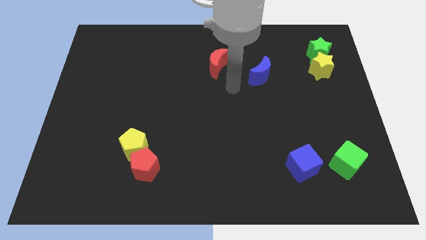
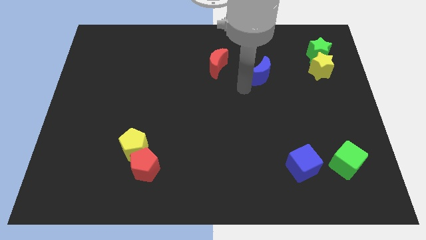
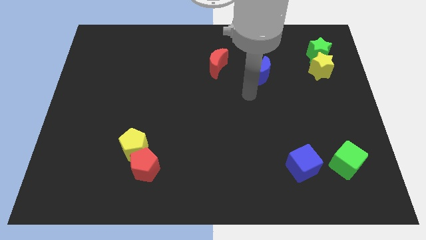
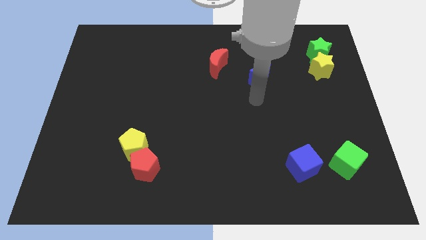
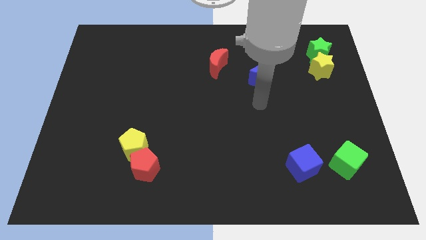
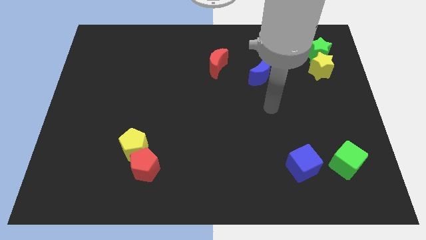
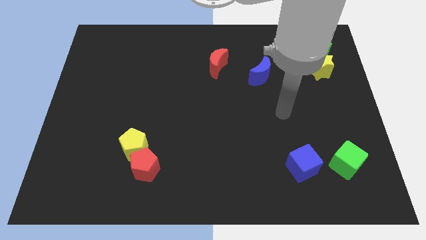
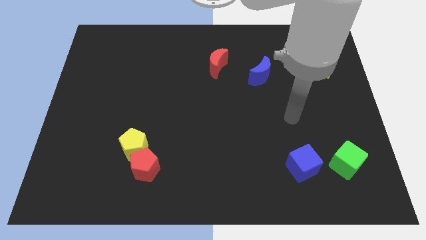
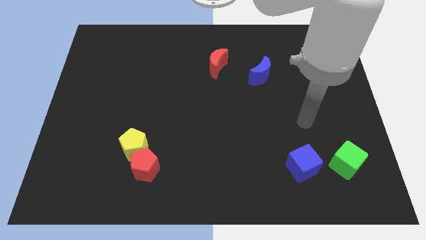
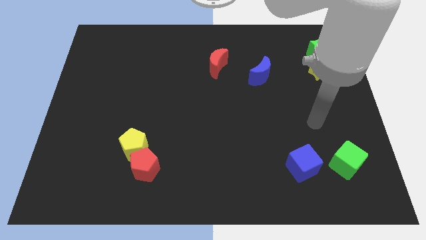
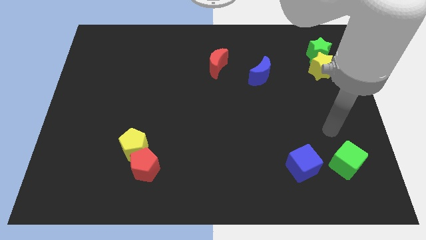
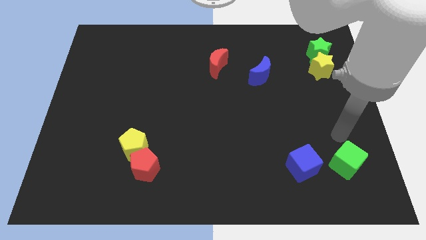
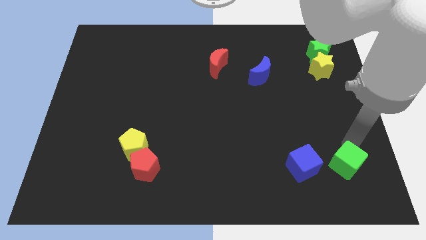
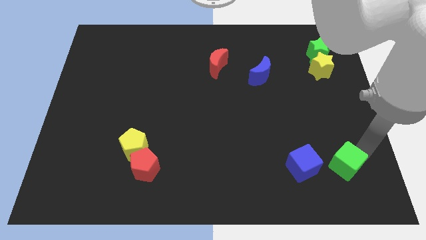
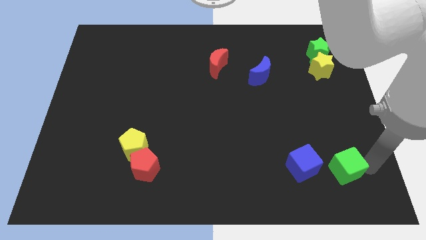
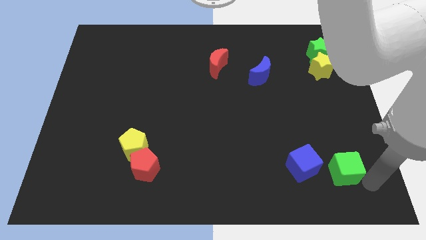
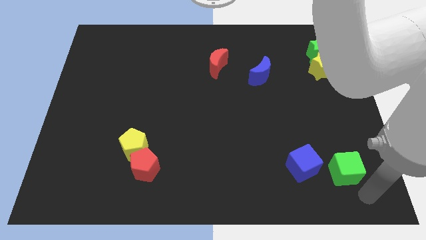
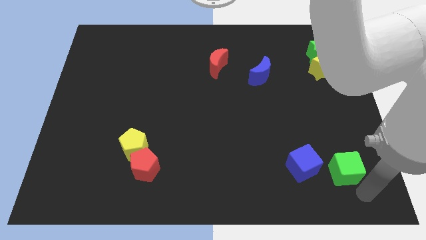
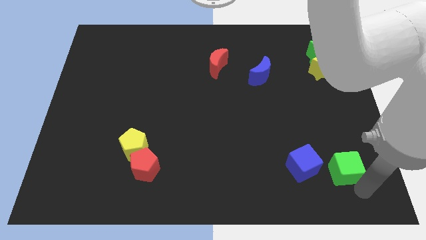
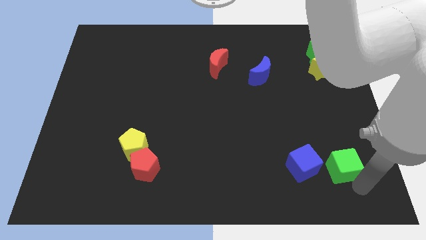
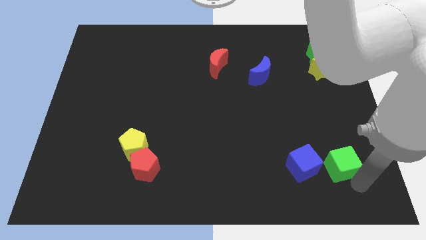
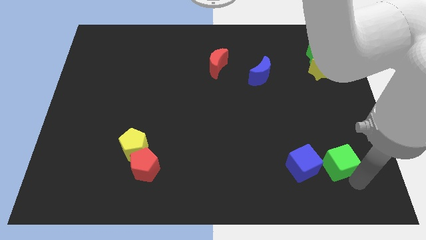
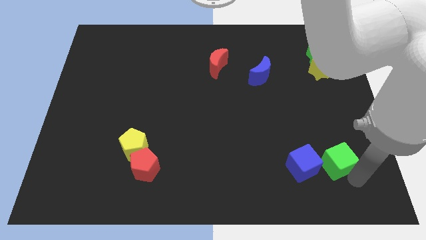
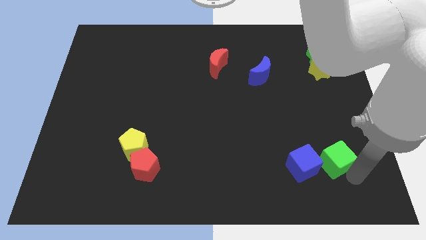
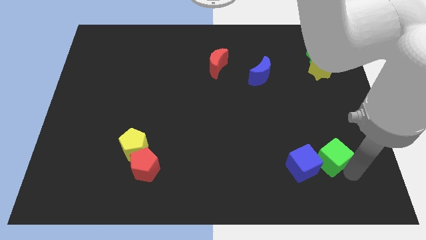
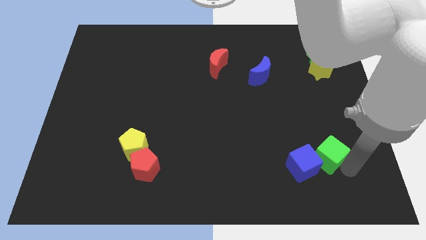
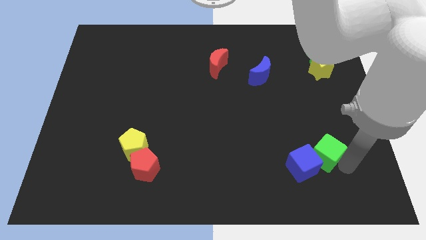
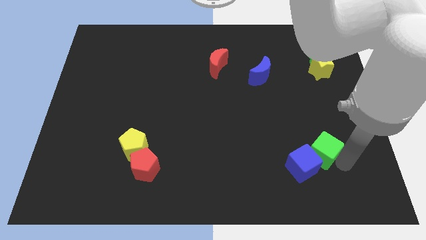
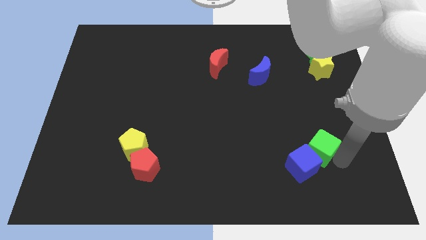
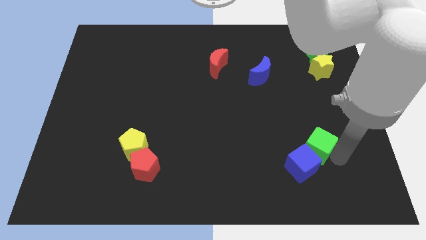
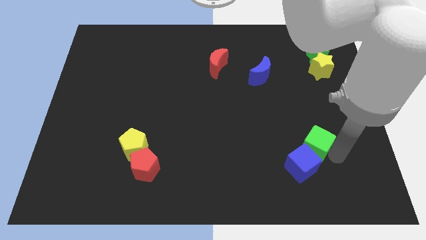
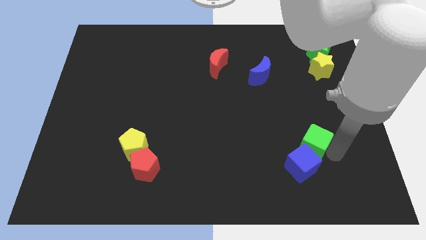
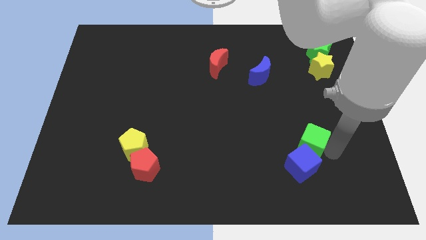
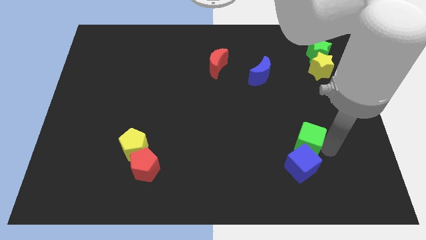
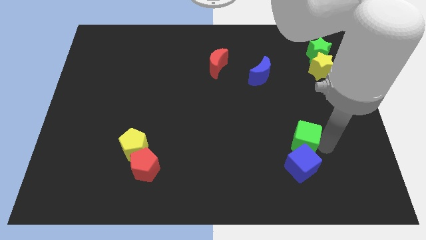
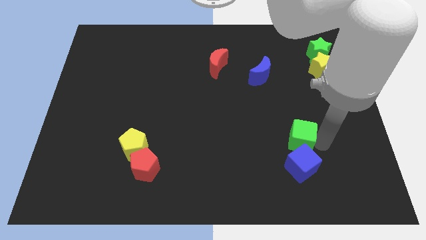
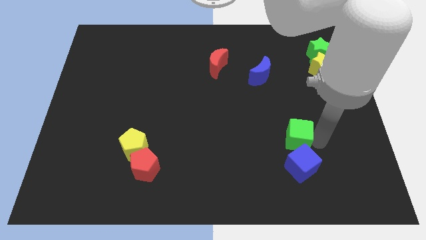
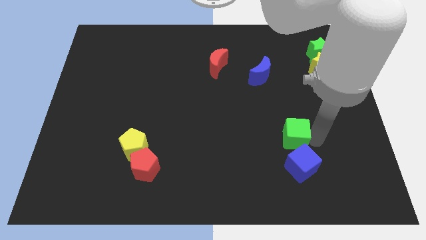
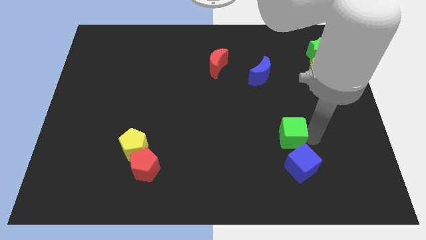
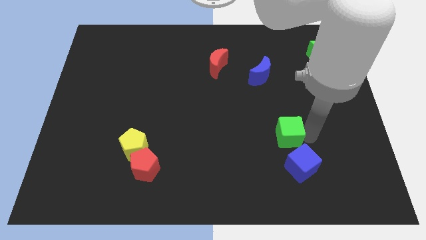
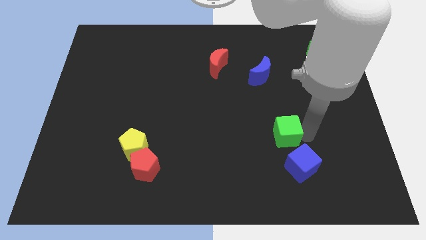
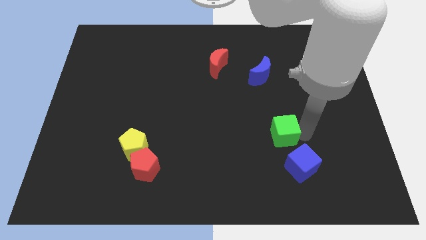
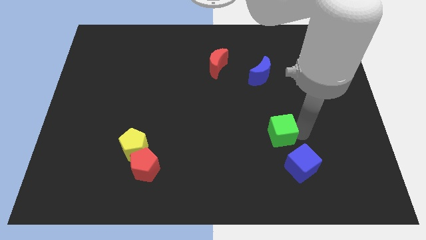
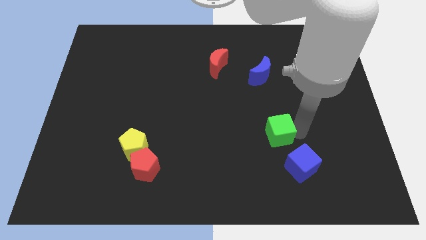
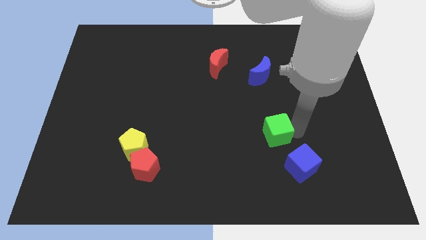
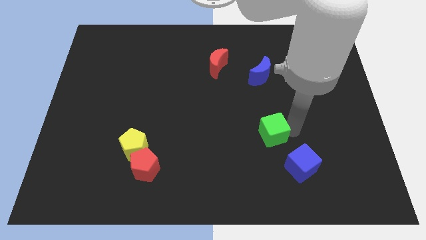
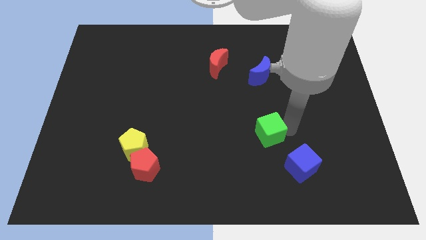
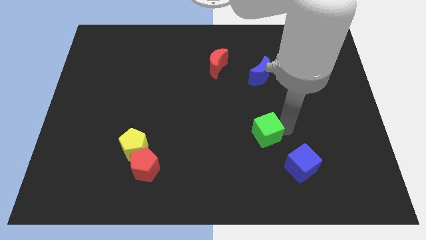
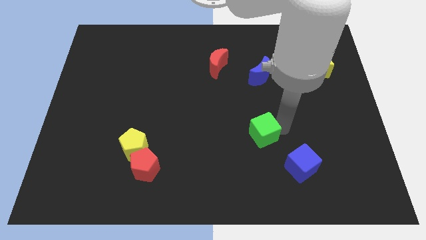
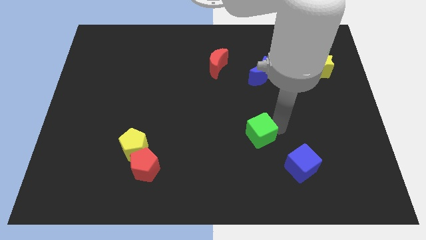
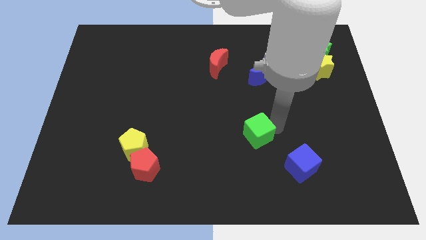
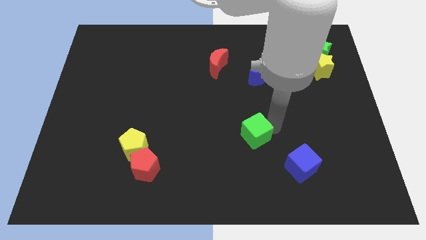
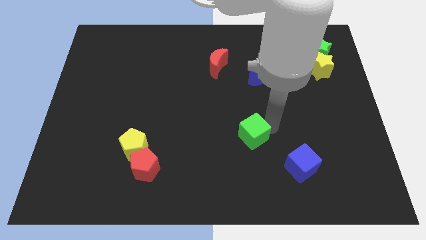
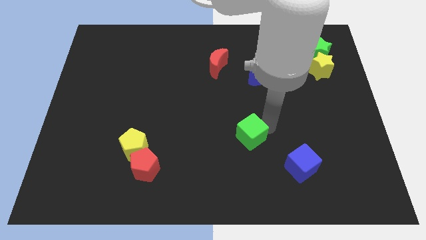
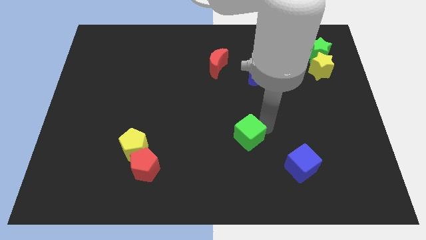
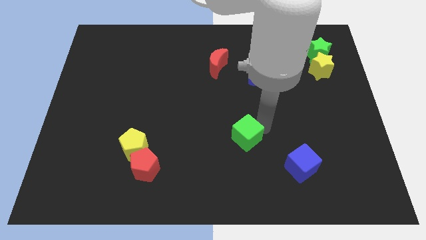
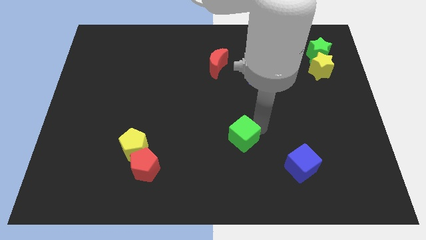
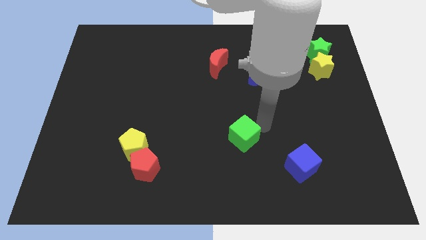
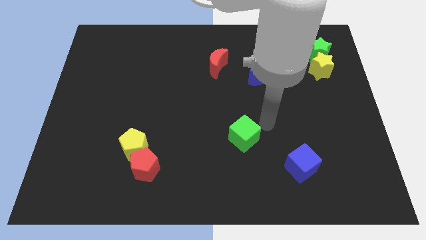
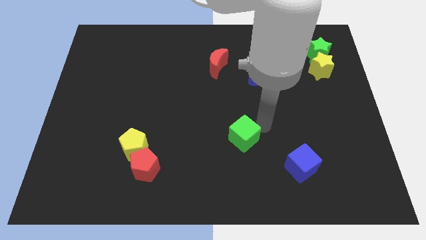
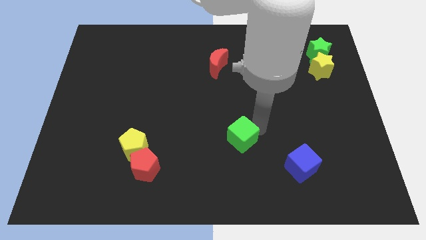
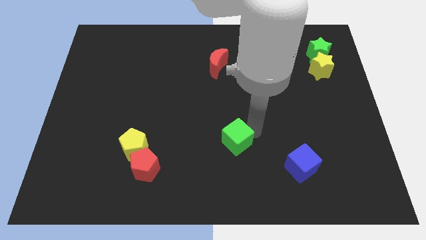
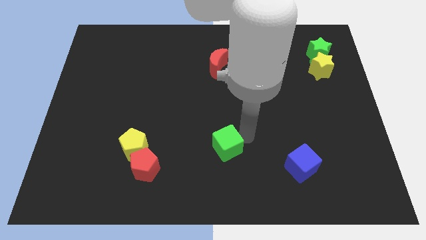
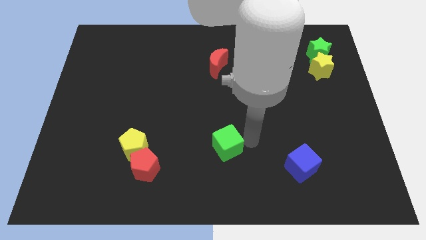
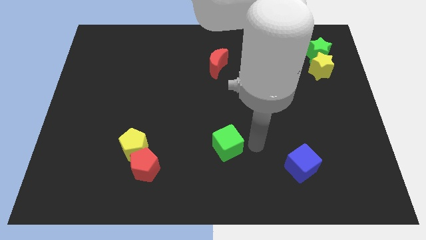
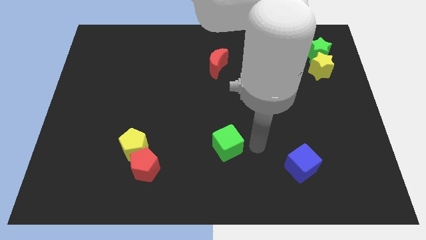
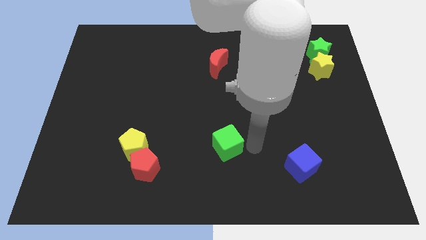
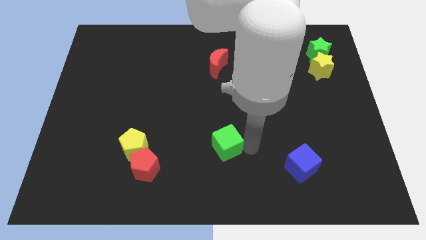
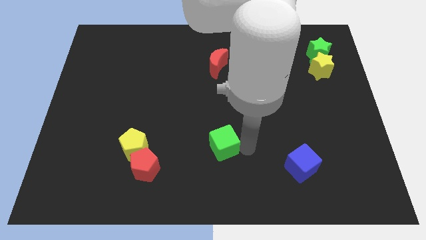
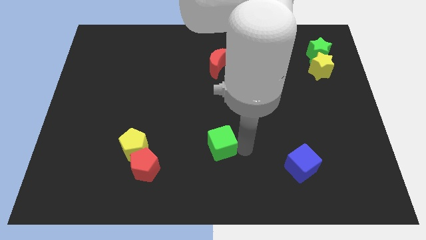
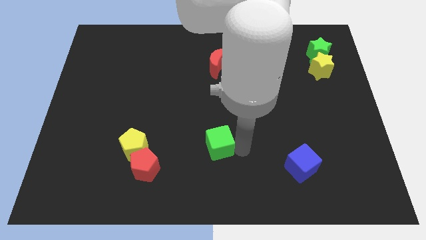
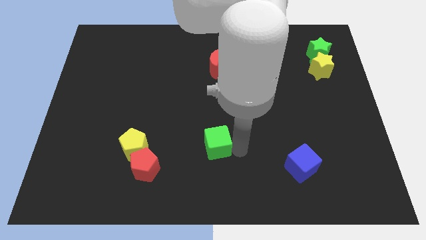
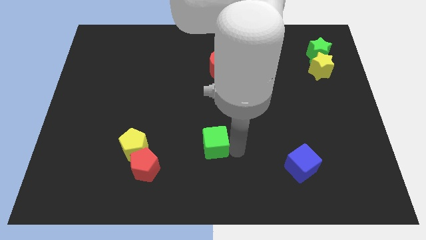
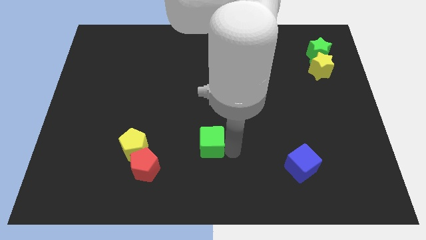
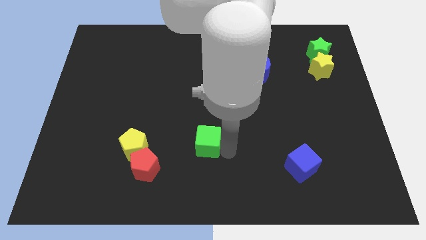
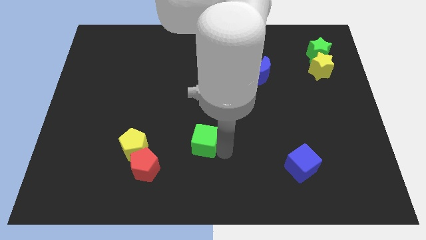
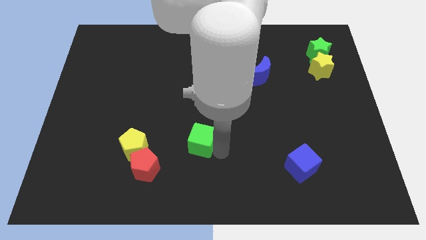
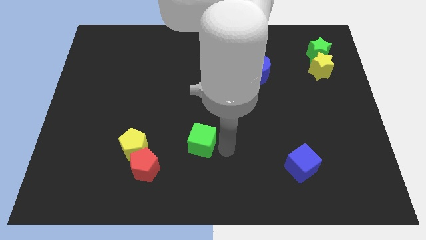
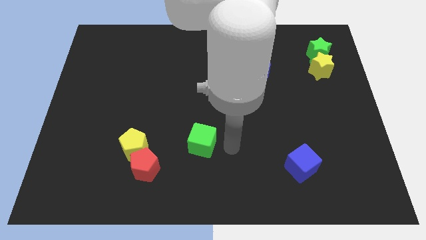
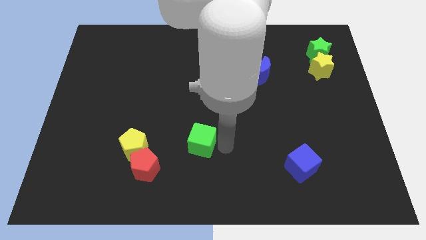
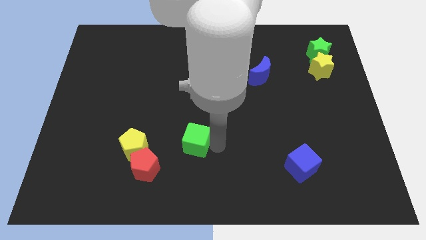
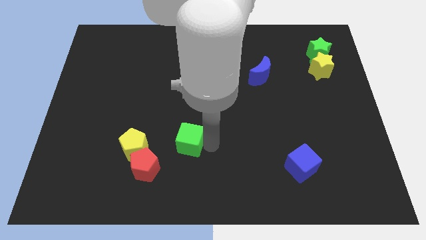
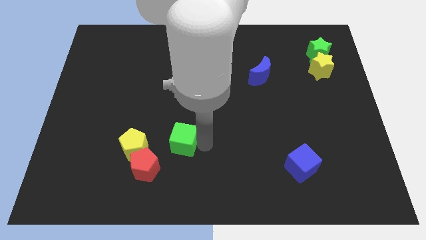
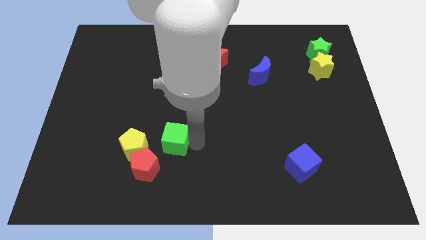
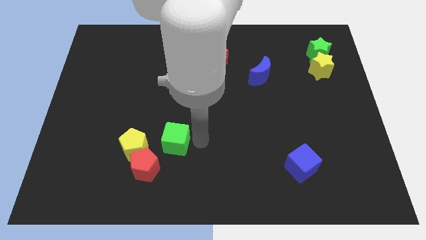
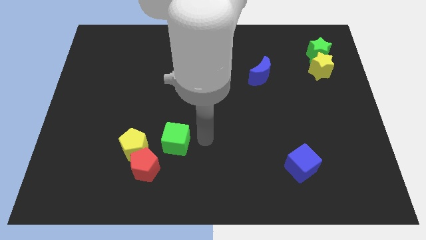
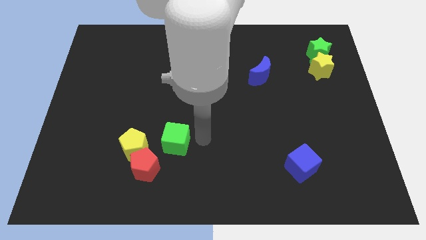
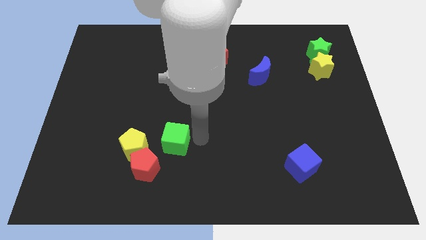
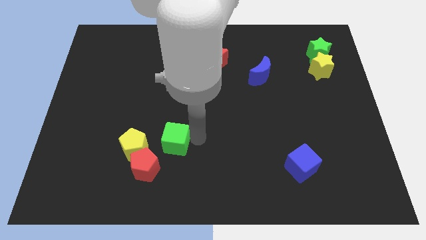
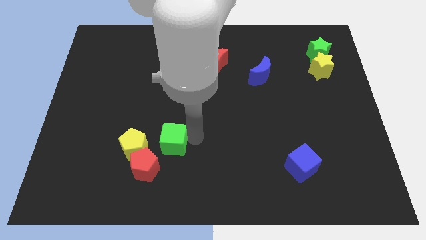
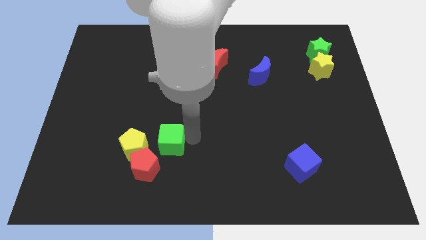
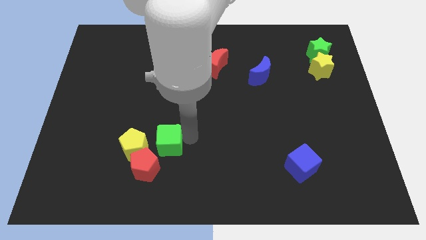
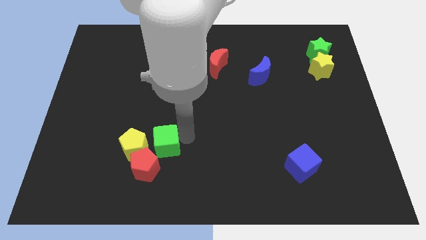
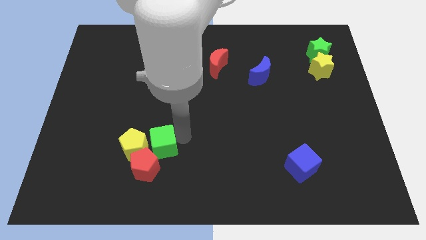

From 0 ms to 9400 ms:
put the green cube towards the yellow pentagon
